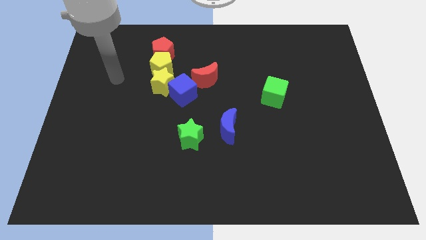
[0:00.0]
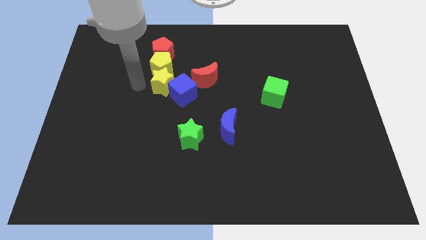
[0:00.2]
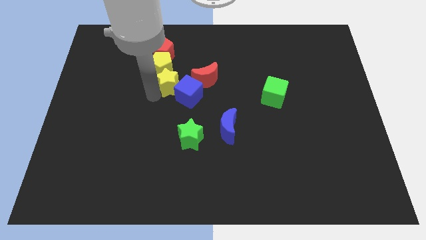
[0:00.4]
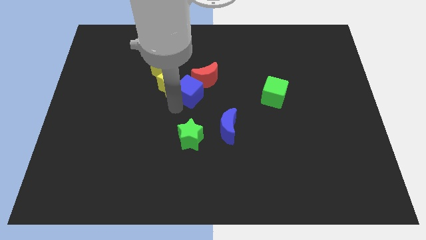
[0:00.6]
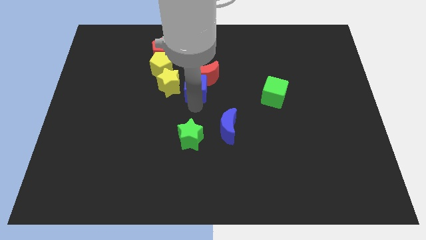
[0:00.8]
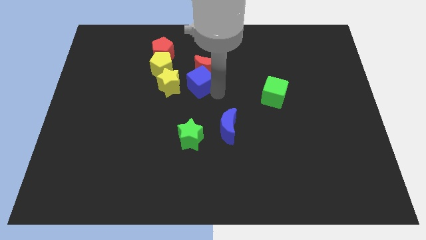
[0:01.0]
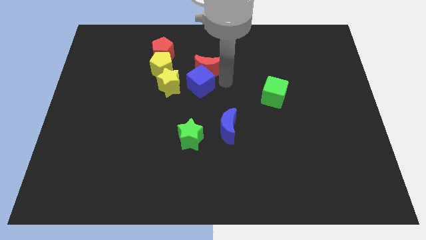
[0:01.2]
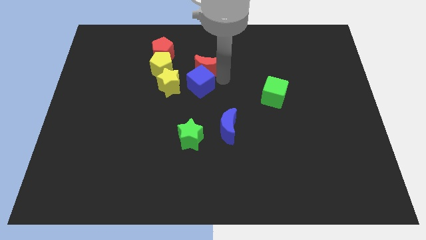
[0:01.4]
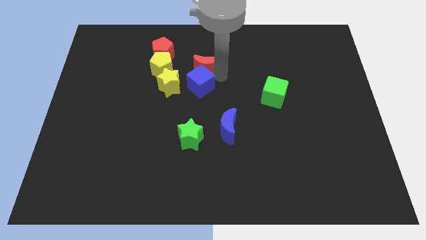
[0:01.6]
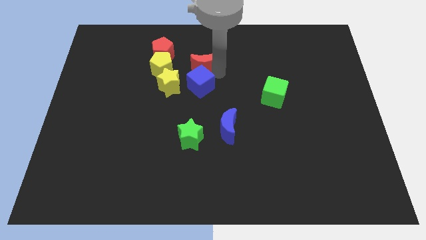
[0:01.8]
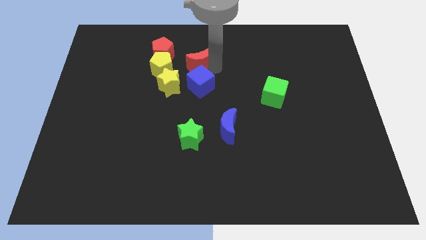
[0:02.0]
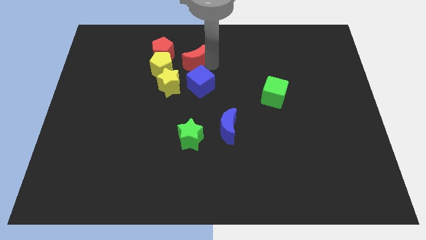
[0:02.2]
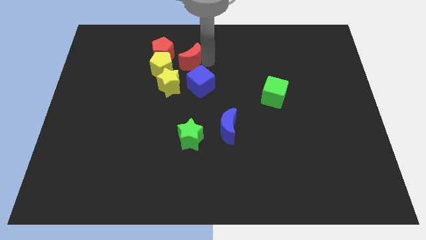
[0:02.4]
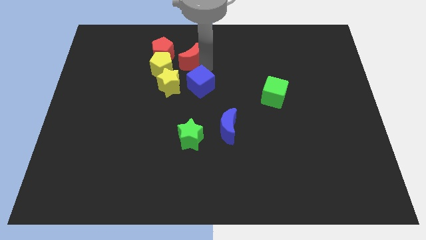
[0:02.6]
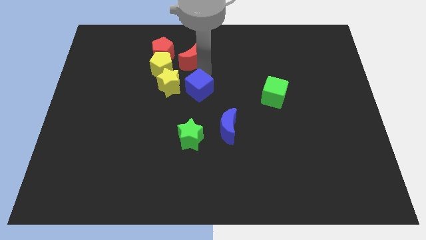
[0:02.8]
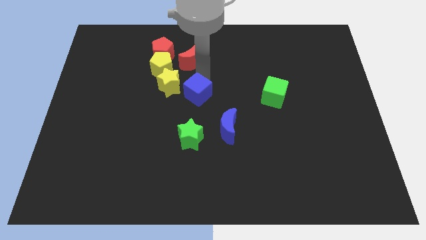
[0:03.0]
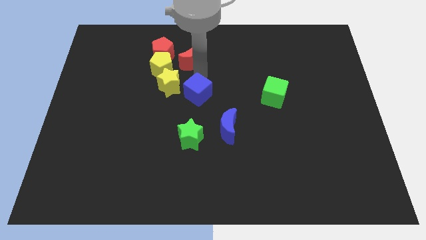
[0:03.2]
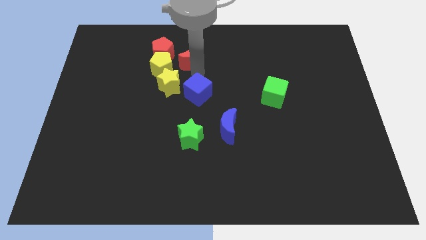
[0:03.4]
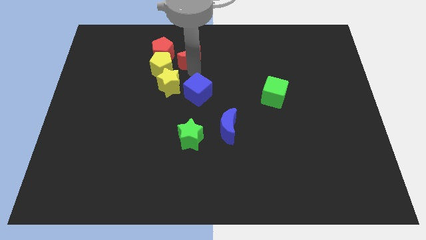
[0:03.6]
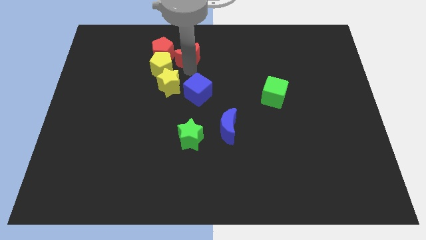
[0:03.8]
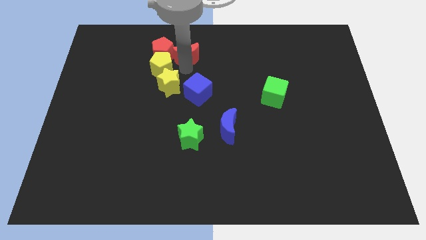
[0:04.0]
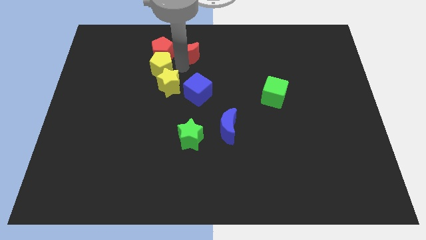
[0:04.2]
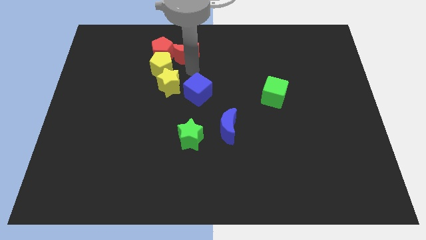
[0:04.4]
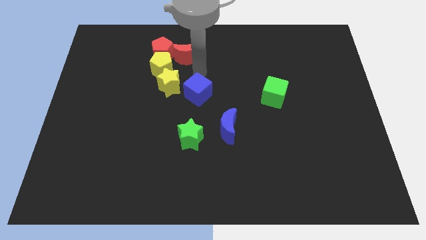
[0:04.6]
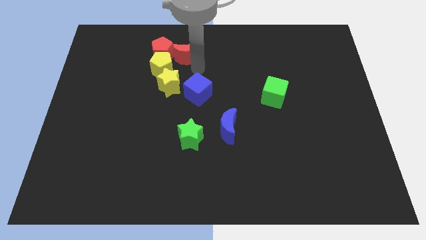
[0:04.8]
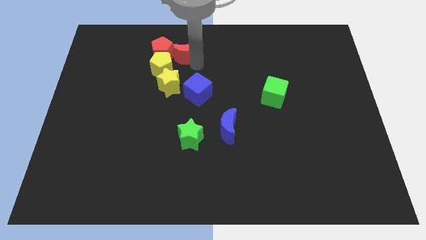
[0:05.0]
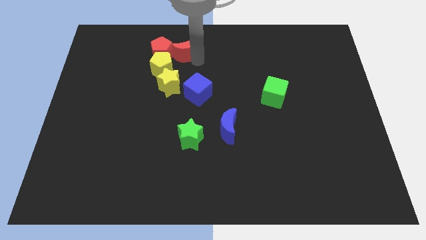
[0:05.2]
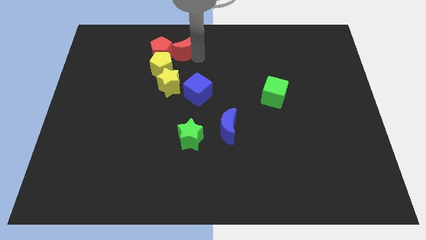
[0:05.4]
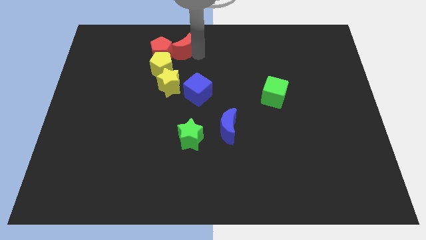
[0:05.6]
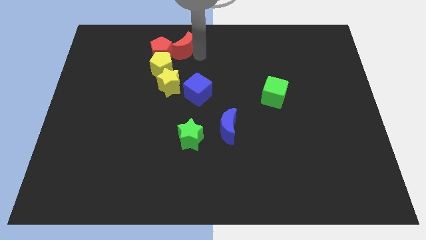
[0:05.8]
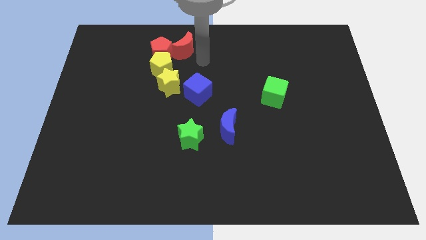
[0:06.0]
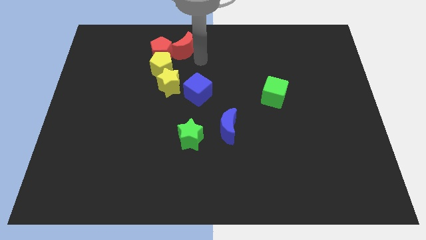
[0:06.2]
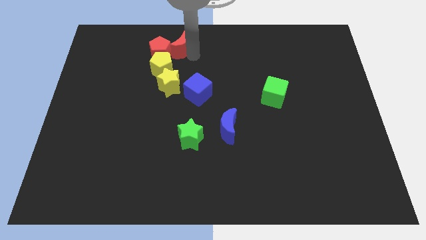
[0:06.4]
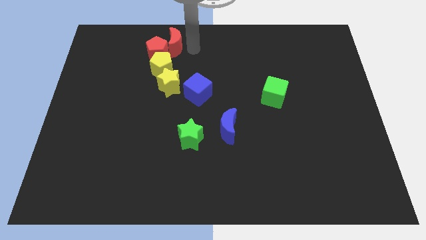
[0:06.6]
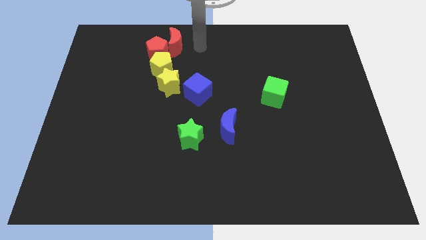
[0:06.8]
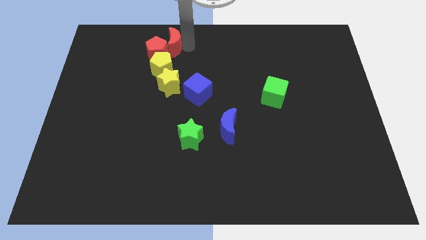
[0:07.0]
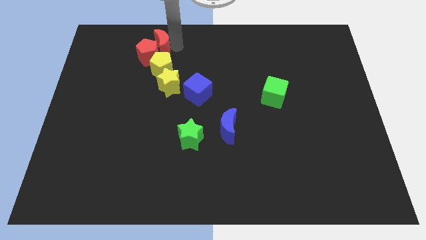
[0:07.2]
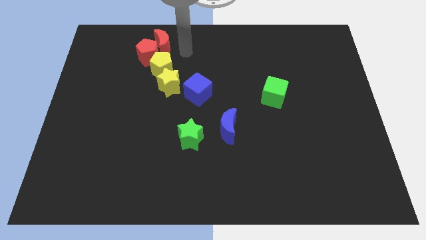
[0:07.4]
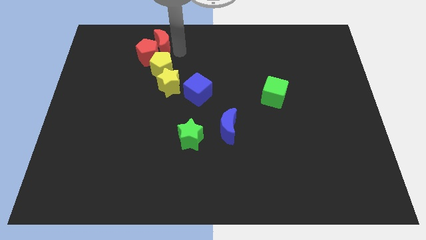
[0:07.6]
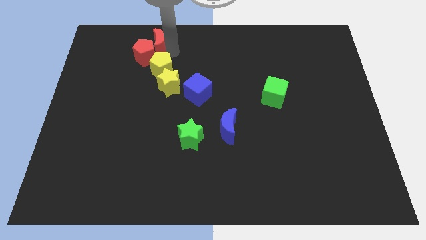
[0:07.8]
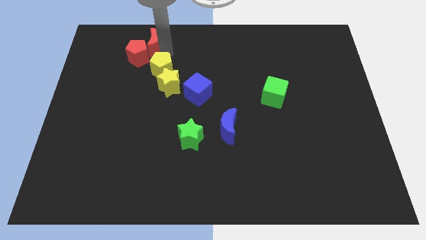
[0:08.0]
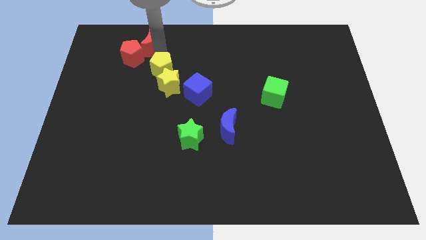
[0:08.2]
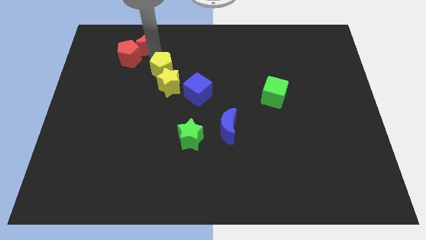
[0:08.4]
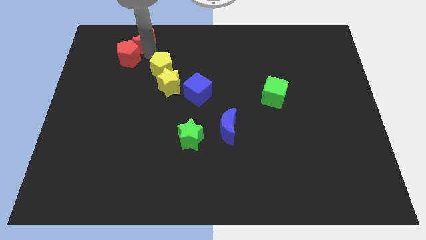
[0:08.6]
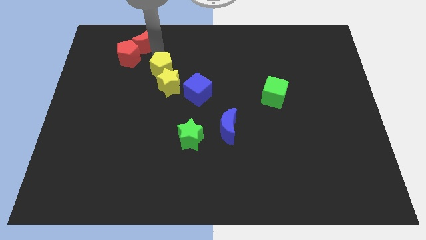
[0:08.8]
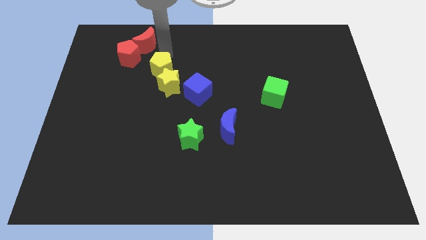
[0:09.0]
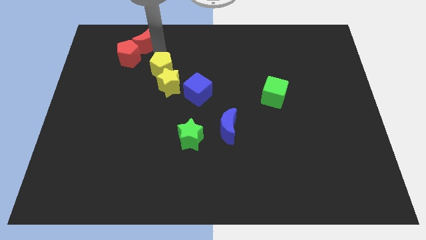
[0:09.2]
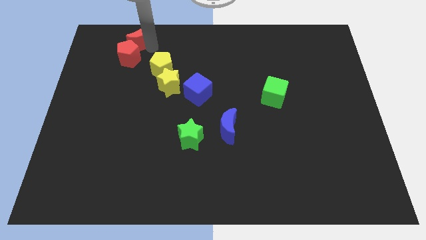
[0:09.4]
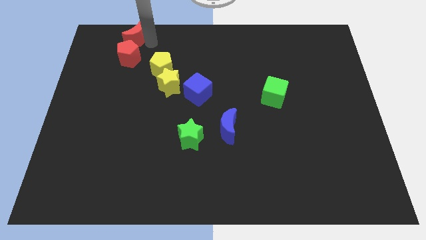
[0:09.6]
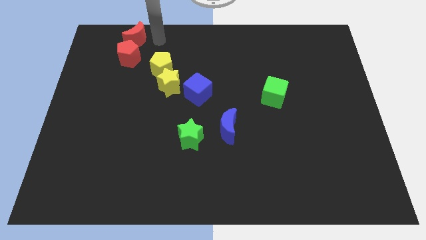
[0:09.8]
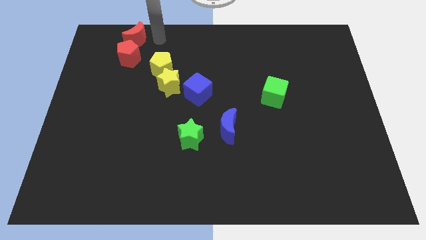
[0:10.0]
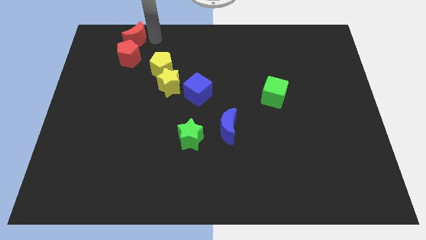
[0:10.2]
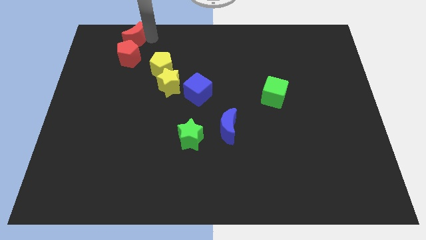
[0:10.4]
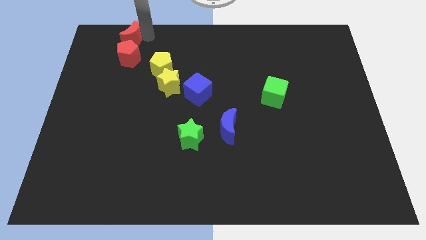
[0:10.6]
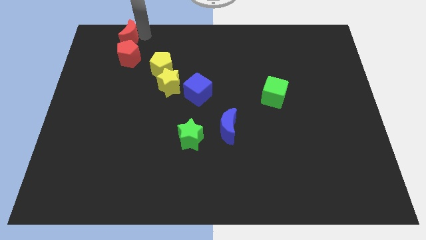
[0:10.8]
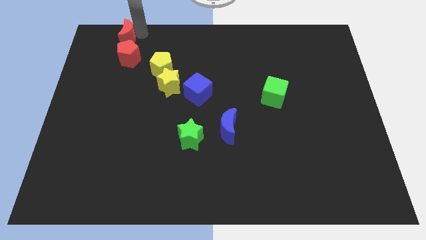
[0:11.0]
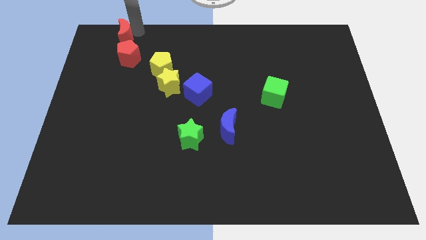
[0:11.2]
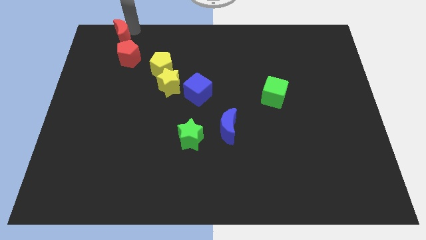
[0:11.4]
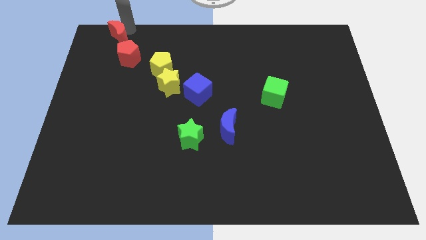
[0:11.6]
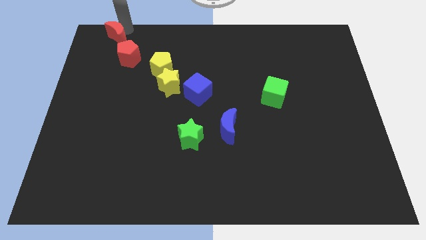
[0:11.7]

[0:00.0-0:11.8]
push the red moon to the top left of the board

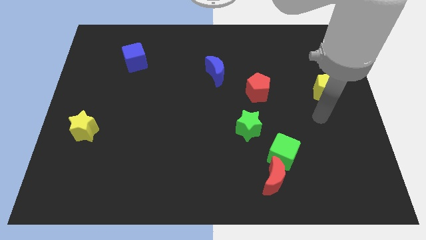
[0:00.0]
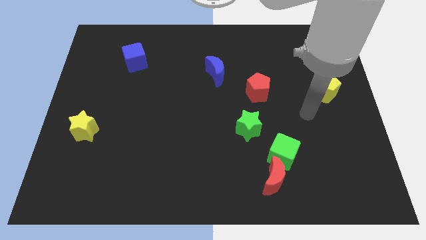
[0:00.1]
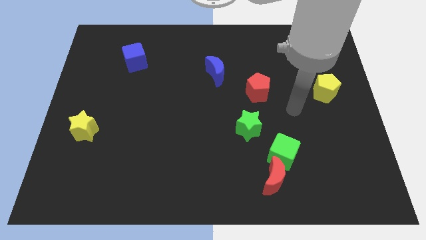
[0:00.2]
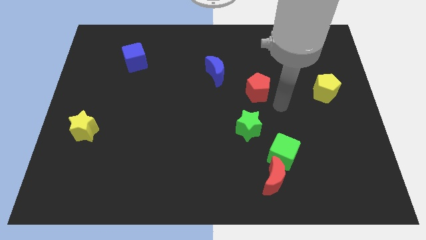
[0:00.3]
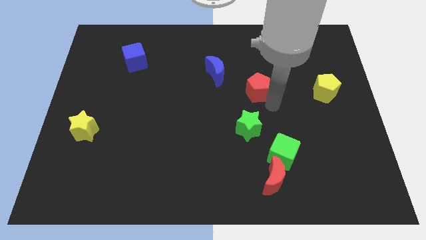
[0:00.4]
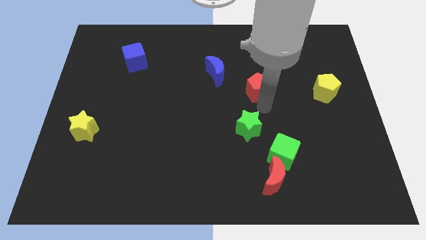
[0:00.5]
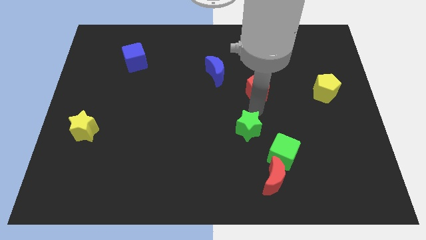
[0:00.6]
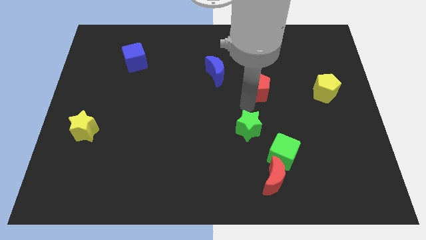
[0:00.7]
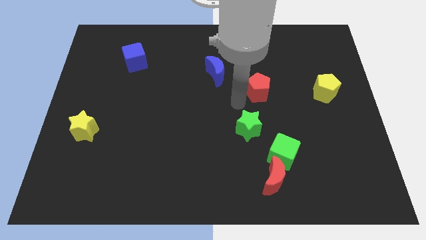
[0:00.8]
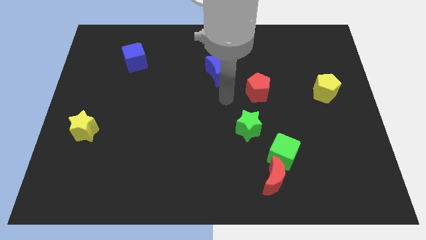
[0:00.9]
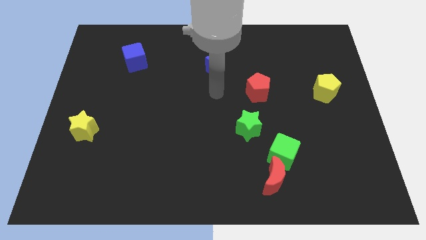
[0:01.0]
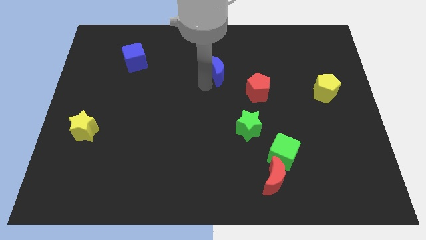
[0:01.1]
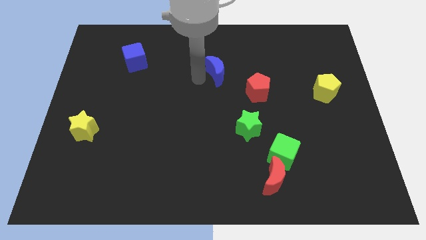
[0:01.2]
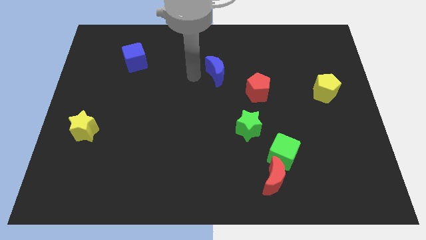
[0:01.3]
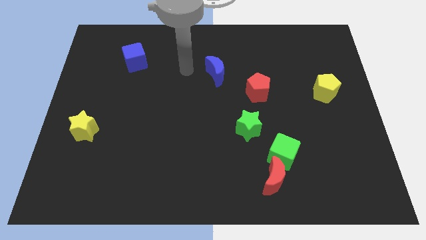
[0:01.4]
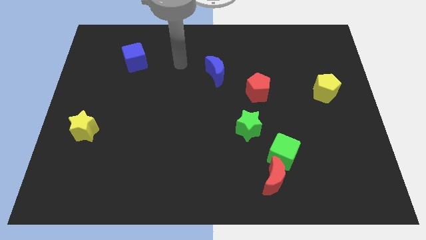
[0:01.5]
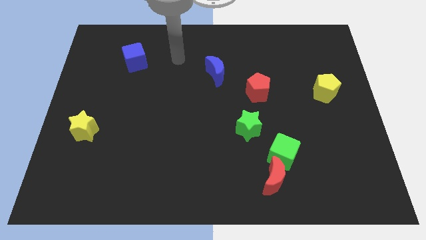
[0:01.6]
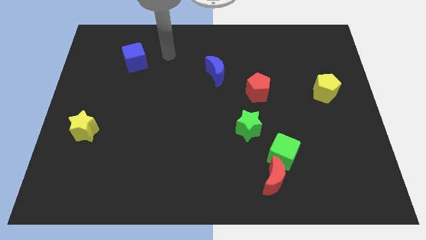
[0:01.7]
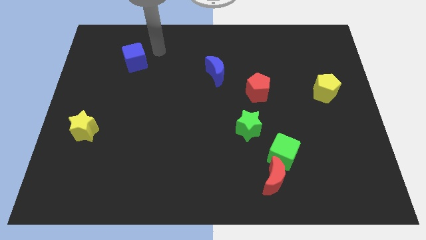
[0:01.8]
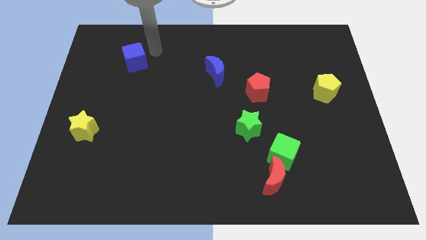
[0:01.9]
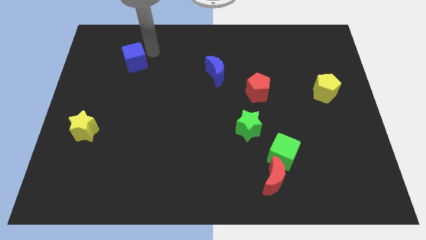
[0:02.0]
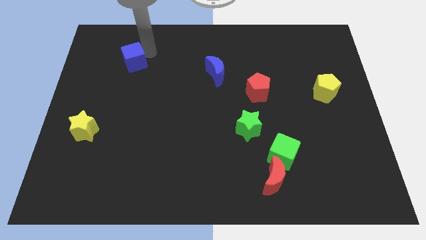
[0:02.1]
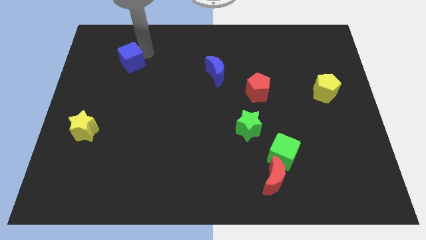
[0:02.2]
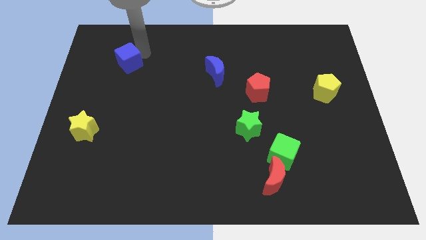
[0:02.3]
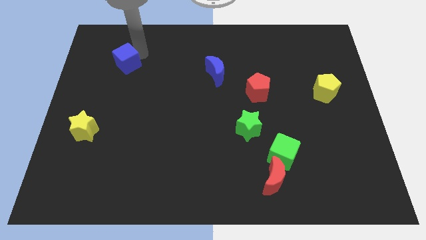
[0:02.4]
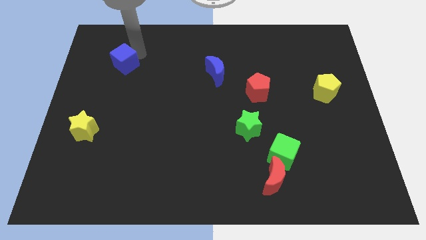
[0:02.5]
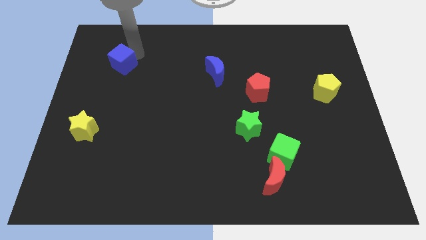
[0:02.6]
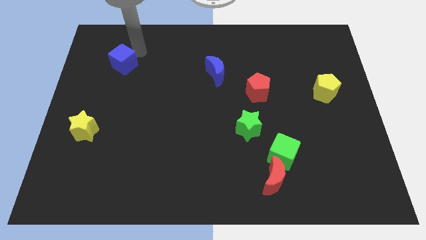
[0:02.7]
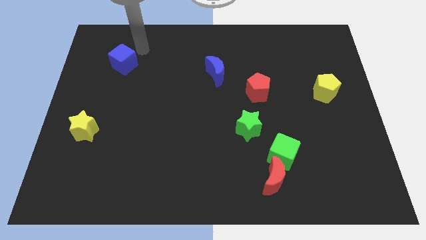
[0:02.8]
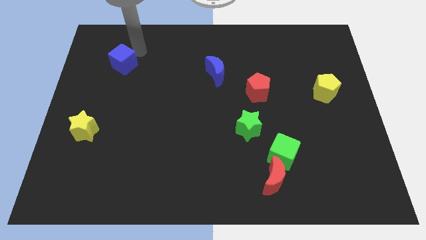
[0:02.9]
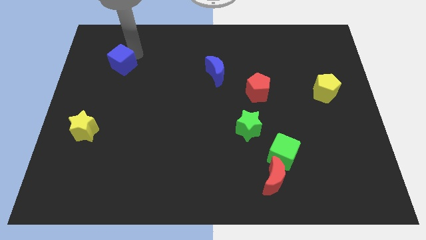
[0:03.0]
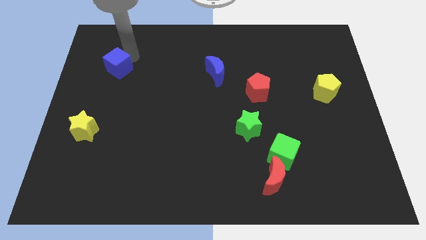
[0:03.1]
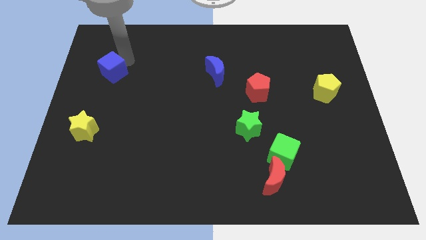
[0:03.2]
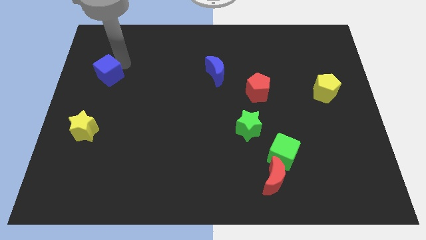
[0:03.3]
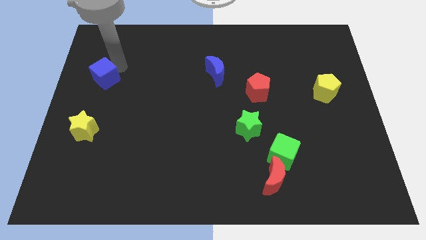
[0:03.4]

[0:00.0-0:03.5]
put the blue cube to the center left
